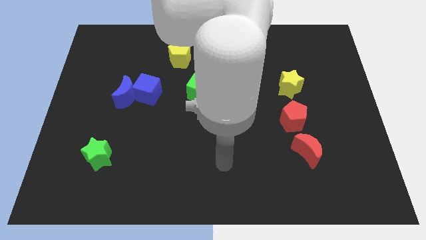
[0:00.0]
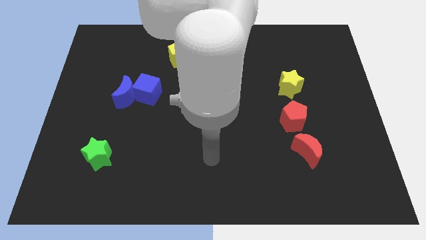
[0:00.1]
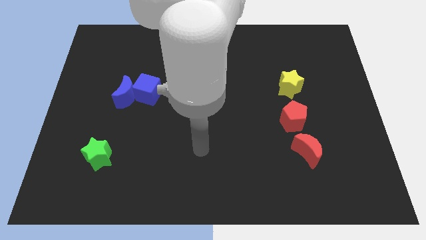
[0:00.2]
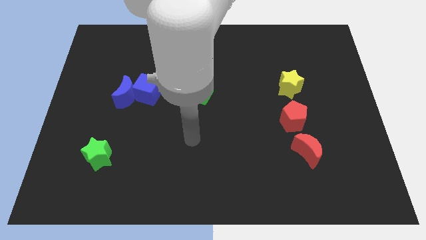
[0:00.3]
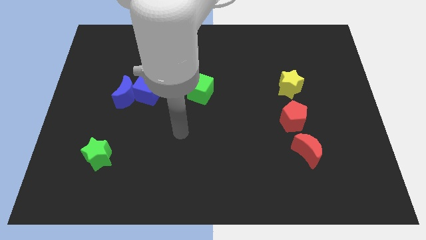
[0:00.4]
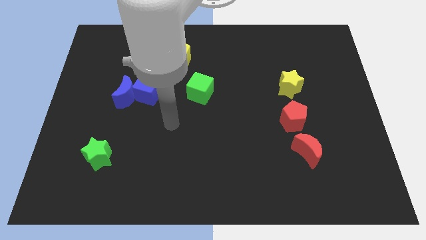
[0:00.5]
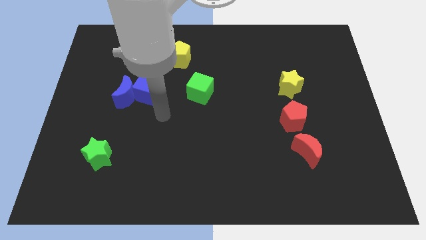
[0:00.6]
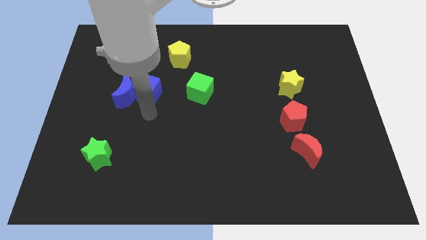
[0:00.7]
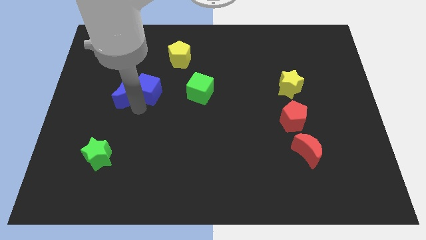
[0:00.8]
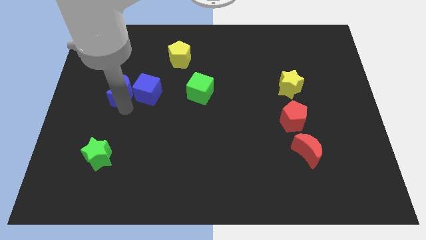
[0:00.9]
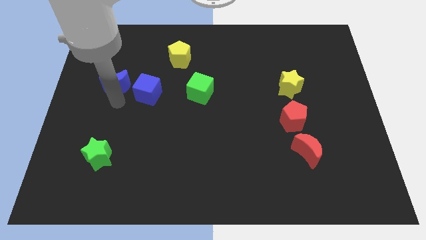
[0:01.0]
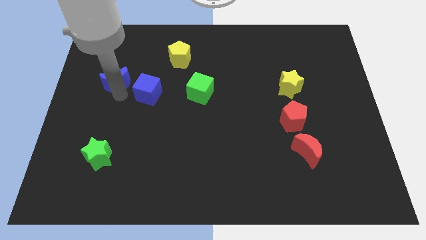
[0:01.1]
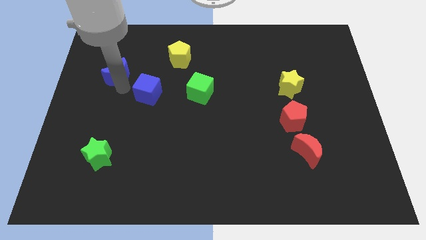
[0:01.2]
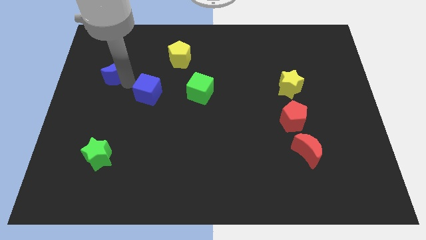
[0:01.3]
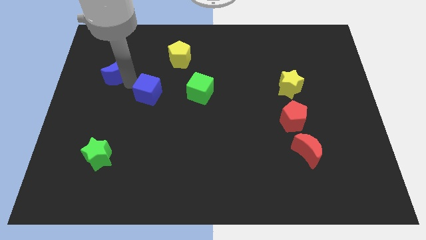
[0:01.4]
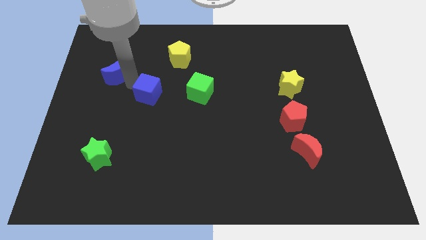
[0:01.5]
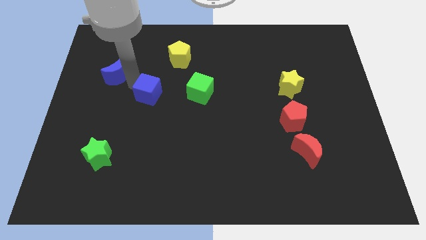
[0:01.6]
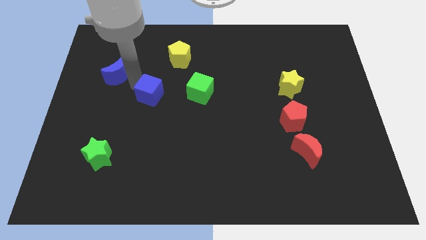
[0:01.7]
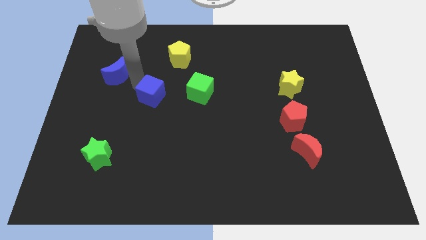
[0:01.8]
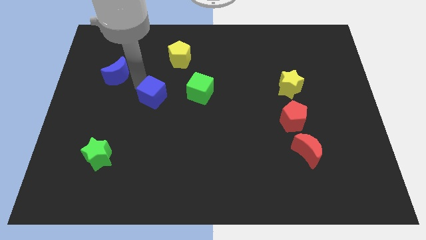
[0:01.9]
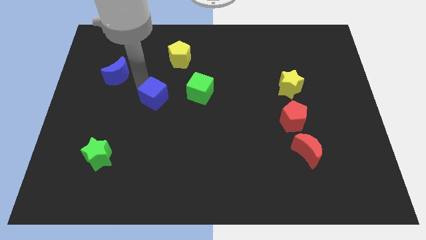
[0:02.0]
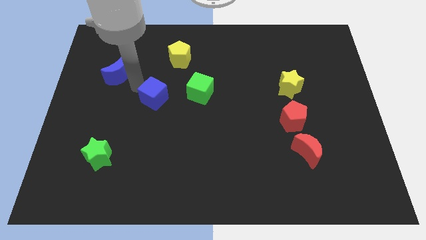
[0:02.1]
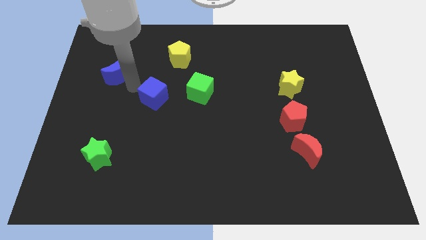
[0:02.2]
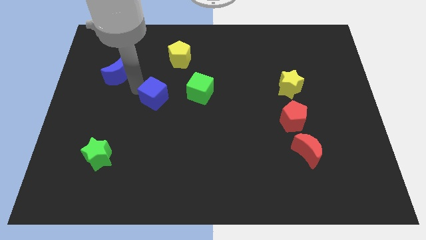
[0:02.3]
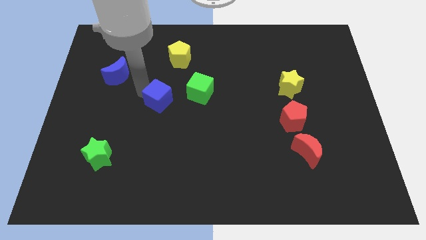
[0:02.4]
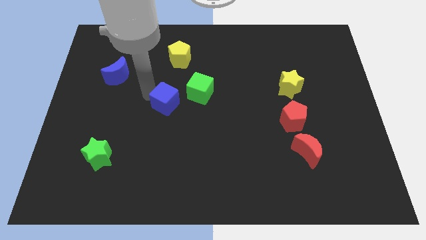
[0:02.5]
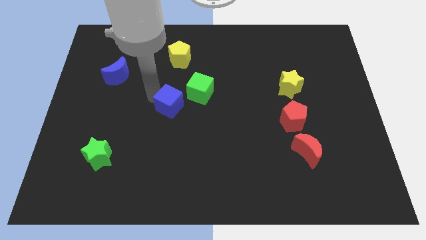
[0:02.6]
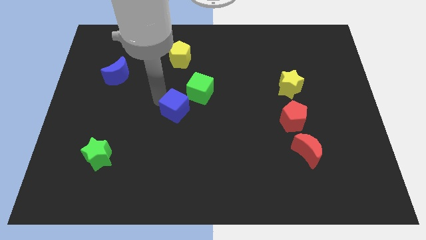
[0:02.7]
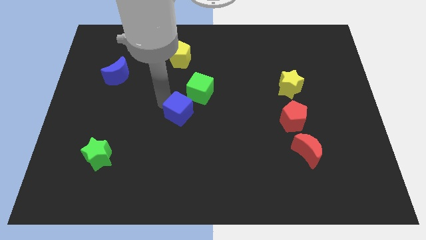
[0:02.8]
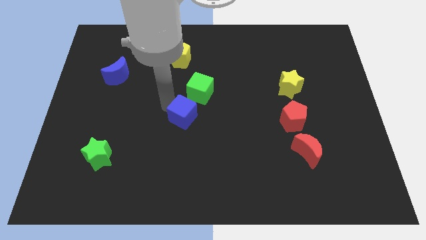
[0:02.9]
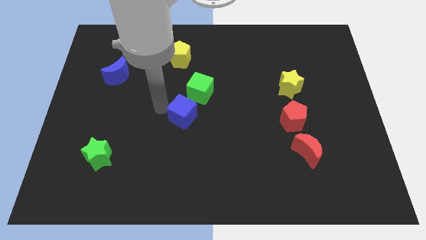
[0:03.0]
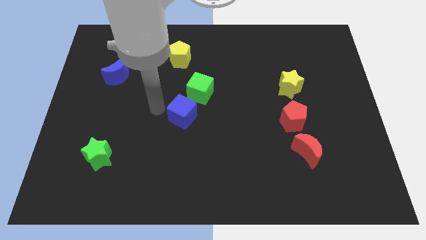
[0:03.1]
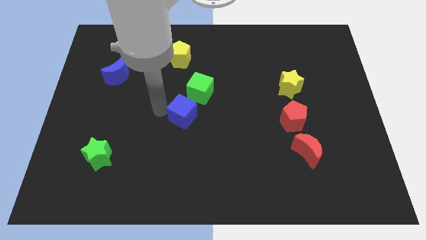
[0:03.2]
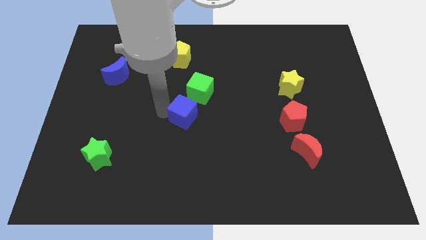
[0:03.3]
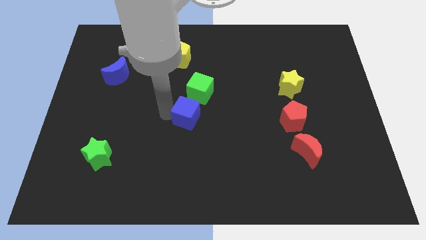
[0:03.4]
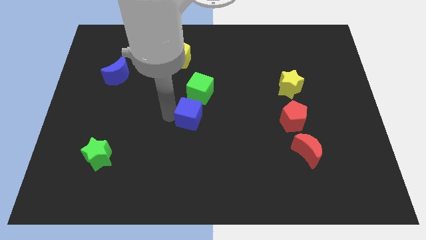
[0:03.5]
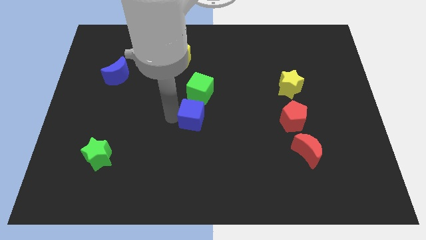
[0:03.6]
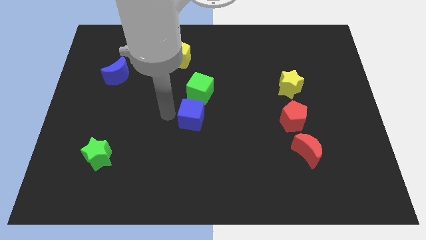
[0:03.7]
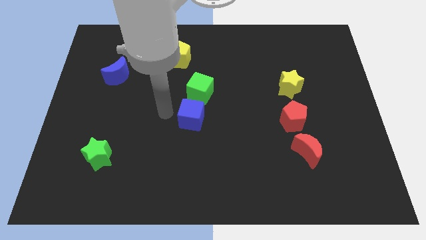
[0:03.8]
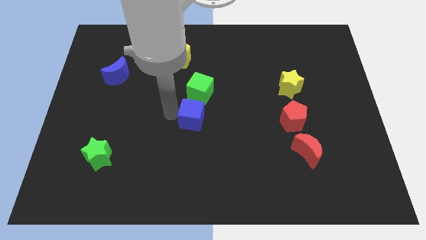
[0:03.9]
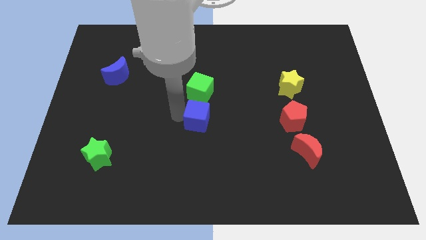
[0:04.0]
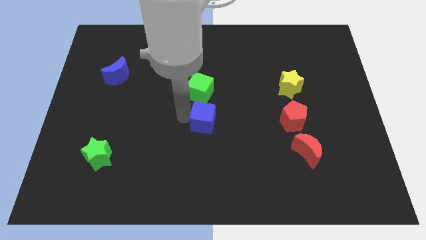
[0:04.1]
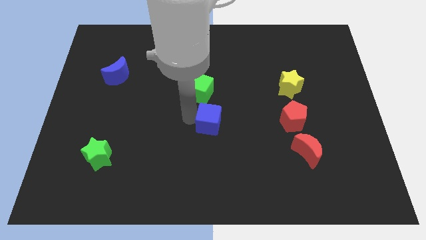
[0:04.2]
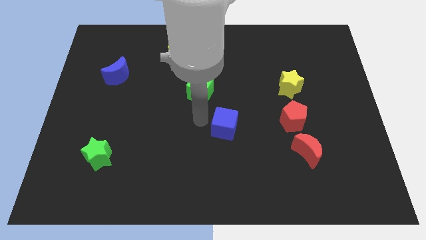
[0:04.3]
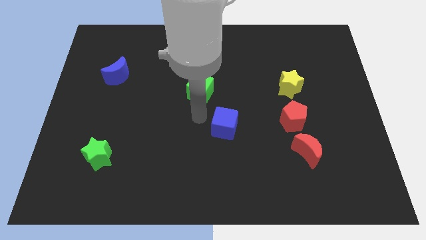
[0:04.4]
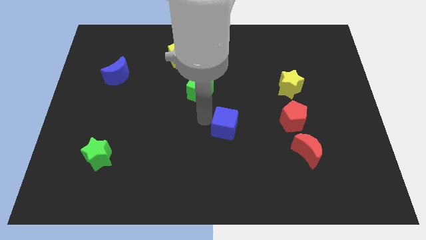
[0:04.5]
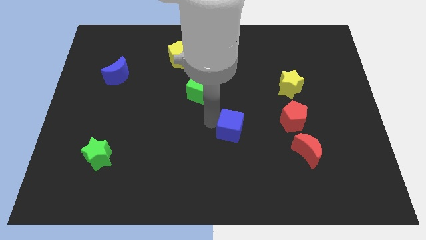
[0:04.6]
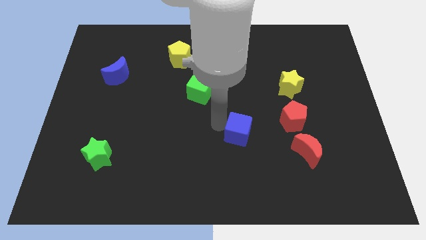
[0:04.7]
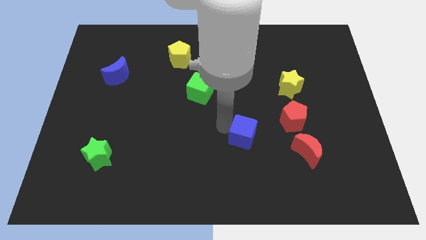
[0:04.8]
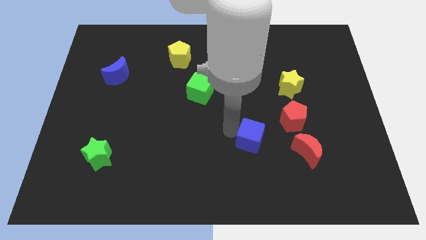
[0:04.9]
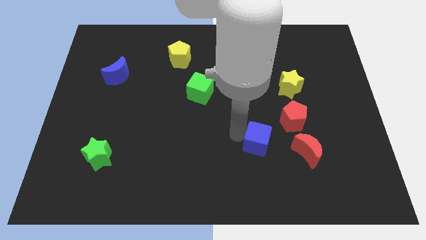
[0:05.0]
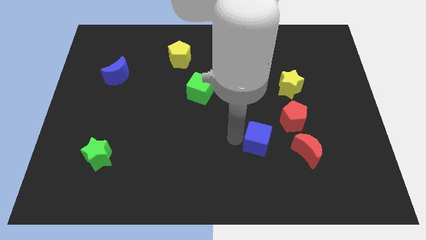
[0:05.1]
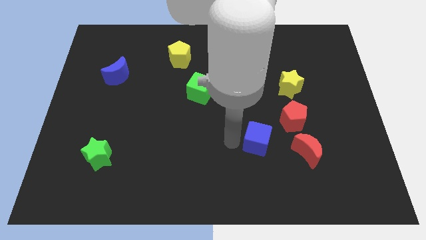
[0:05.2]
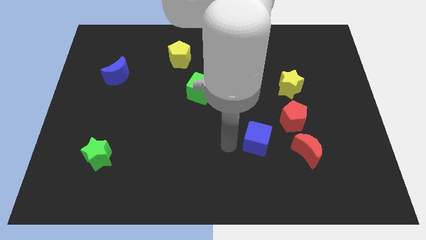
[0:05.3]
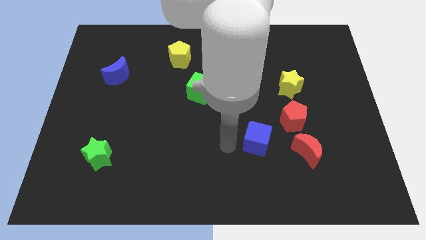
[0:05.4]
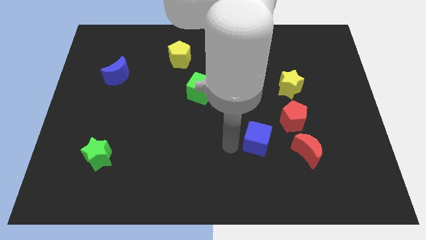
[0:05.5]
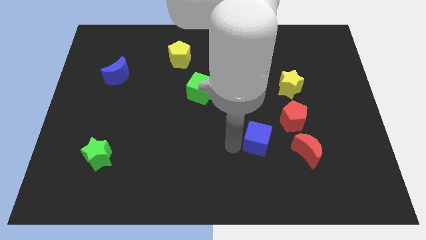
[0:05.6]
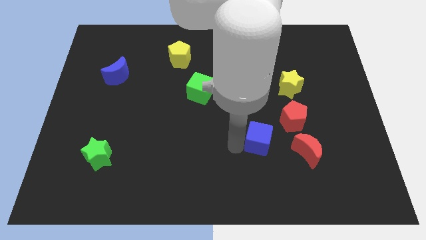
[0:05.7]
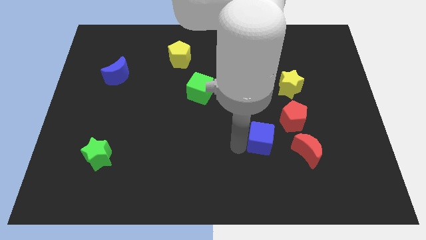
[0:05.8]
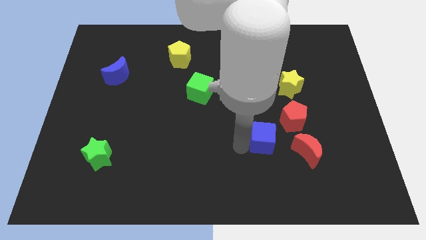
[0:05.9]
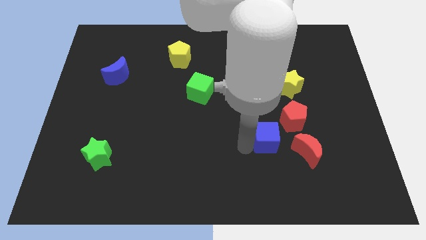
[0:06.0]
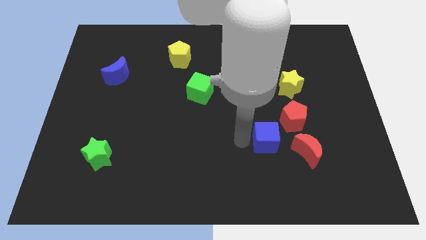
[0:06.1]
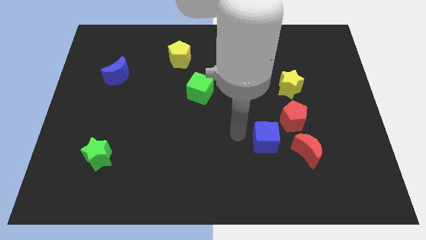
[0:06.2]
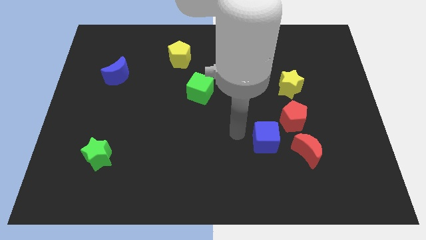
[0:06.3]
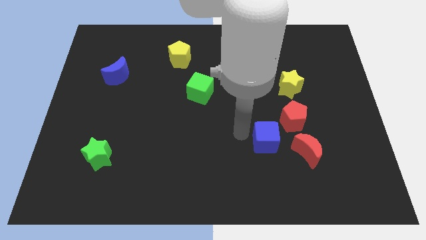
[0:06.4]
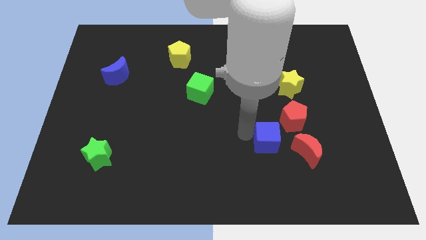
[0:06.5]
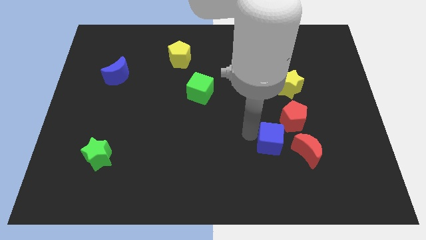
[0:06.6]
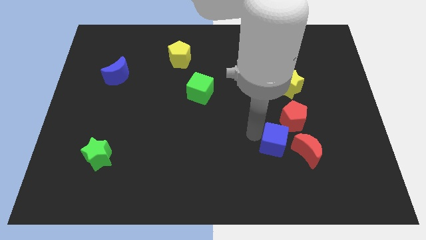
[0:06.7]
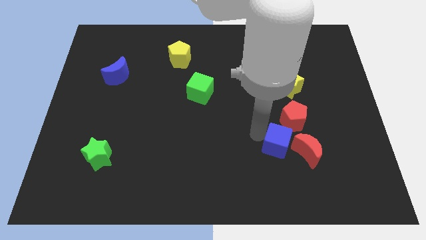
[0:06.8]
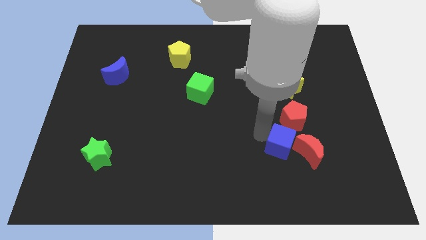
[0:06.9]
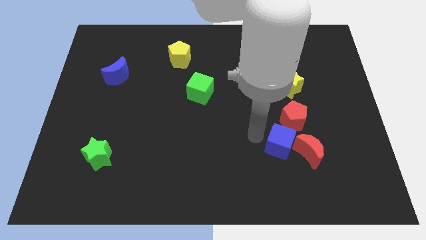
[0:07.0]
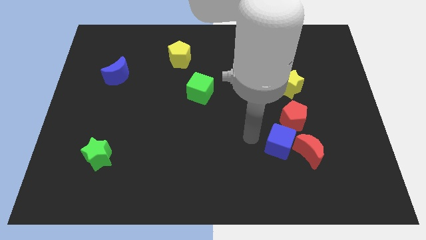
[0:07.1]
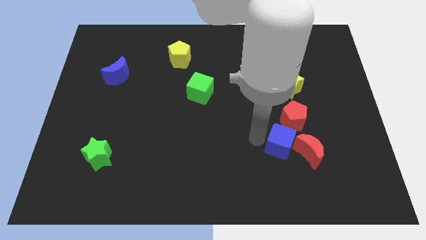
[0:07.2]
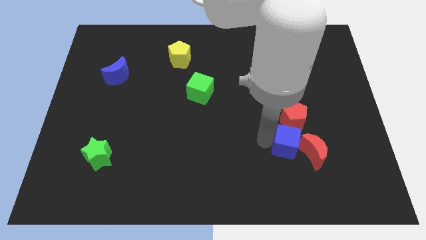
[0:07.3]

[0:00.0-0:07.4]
move the blue cube next to the red moon

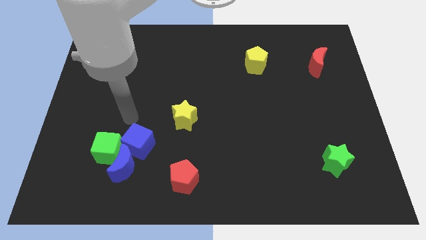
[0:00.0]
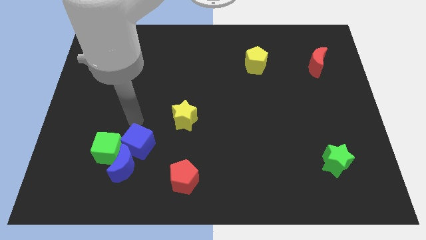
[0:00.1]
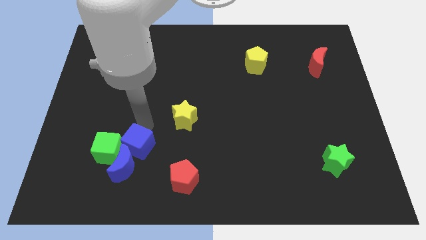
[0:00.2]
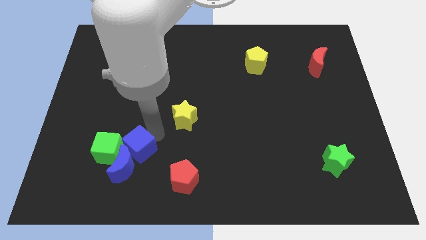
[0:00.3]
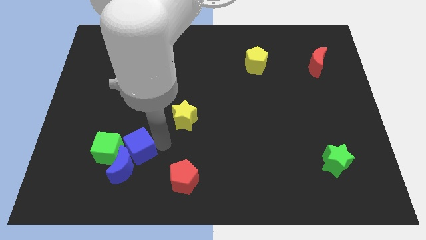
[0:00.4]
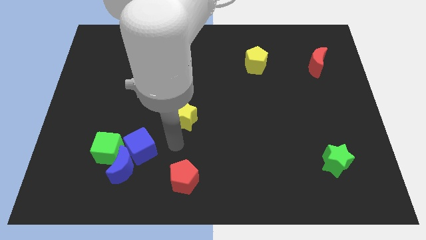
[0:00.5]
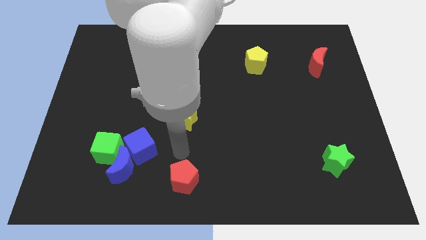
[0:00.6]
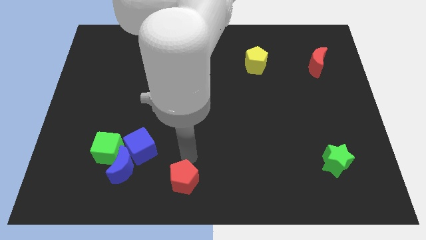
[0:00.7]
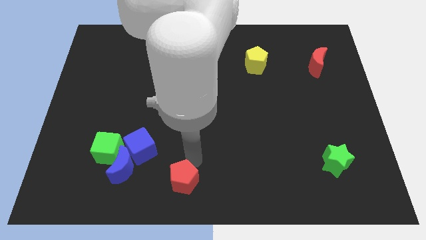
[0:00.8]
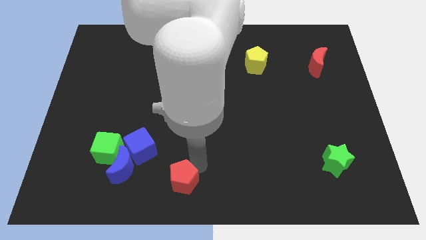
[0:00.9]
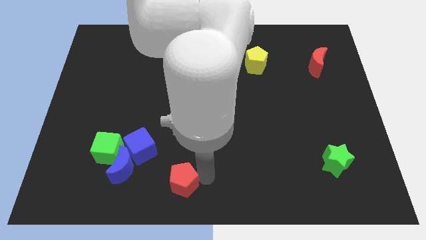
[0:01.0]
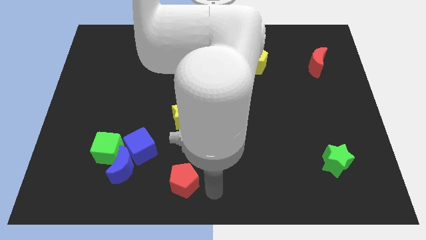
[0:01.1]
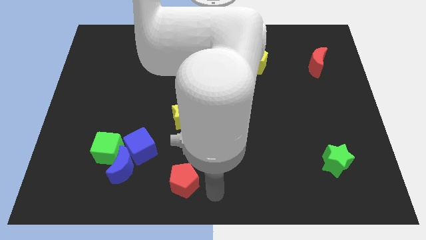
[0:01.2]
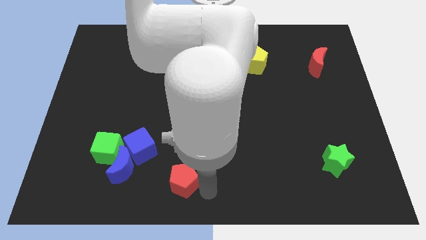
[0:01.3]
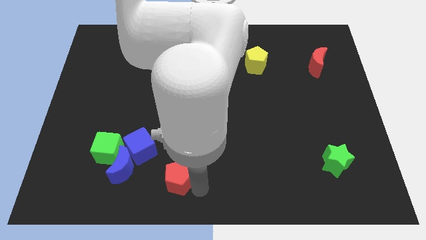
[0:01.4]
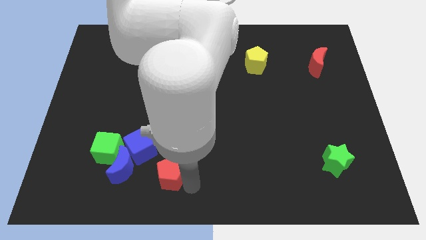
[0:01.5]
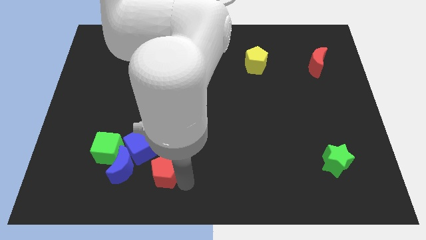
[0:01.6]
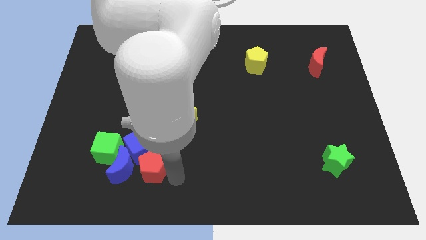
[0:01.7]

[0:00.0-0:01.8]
put the red pentagon towards the blue moon
